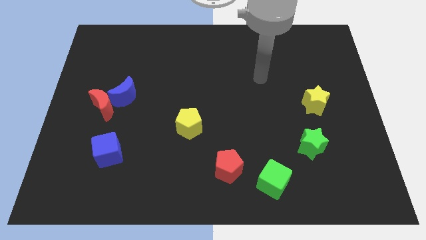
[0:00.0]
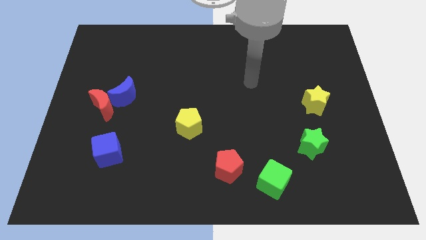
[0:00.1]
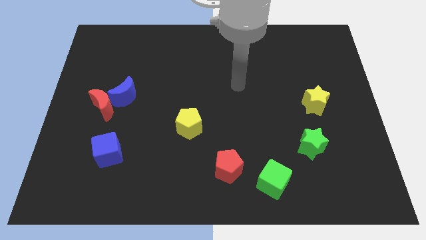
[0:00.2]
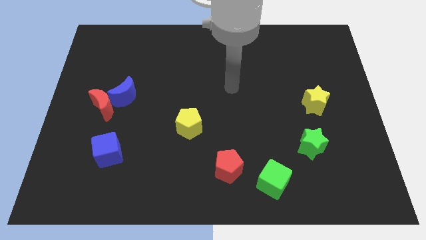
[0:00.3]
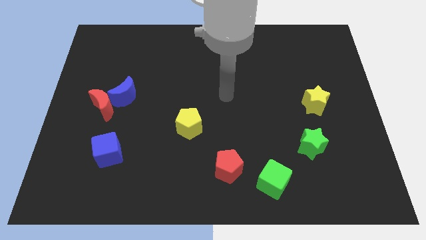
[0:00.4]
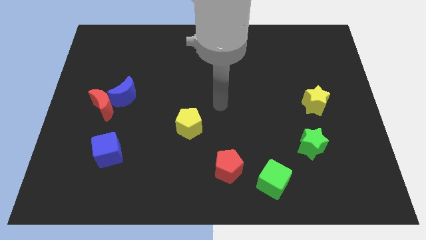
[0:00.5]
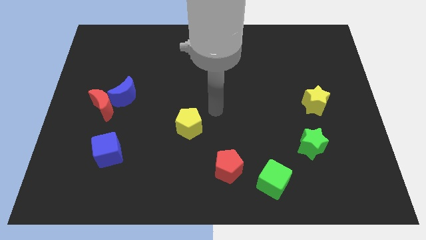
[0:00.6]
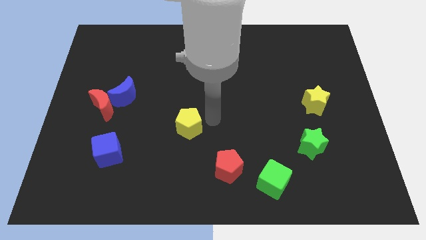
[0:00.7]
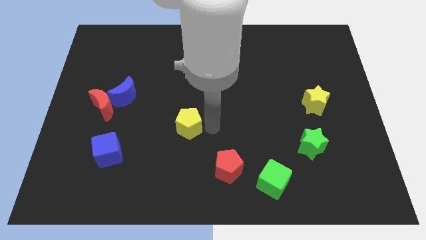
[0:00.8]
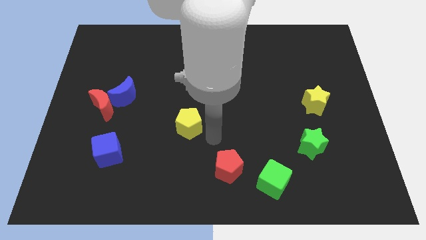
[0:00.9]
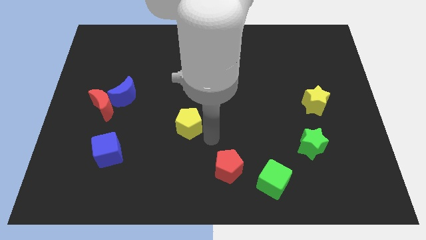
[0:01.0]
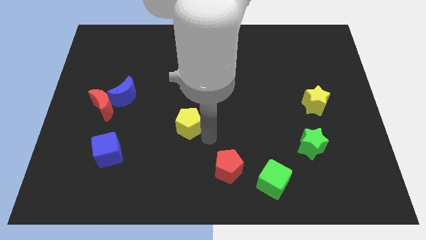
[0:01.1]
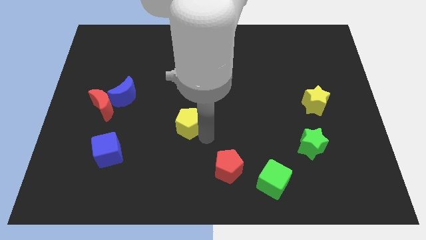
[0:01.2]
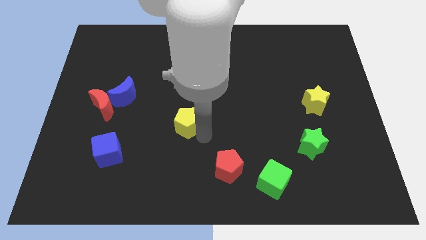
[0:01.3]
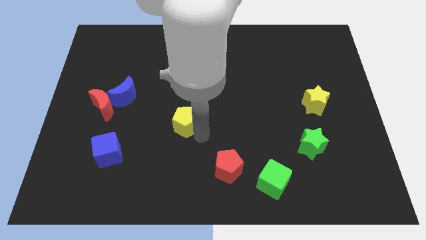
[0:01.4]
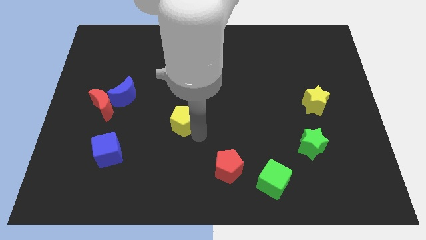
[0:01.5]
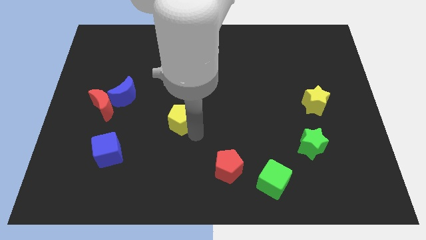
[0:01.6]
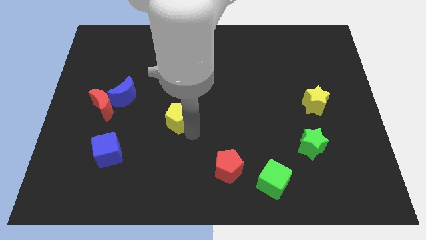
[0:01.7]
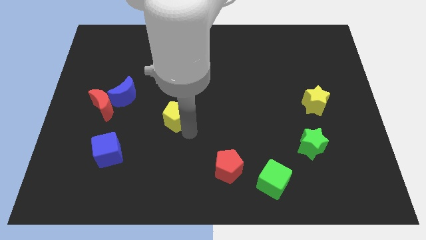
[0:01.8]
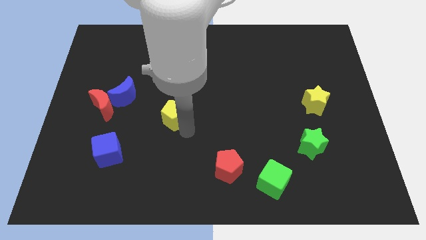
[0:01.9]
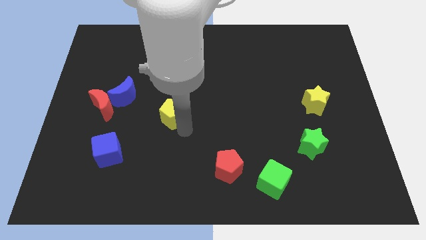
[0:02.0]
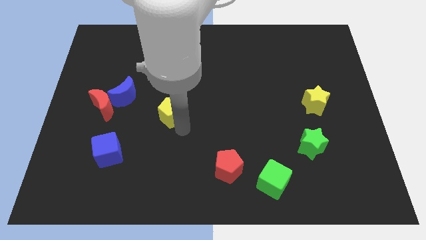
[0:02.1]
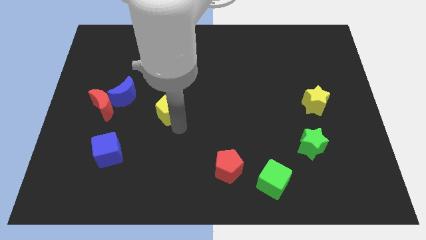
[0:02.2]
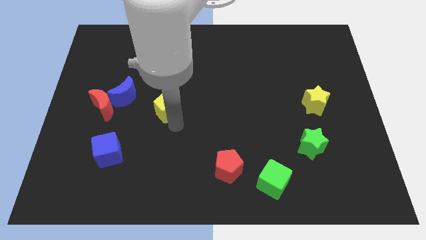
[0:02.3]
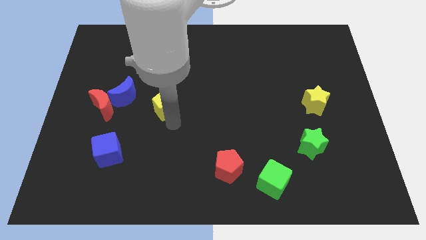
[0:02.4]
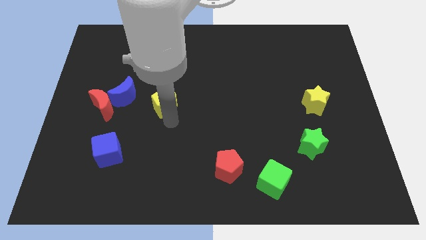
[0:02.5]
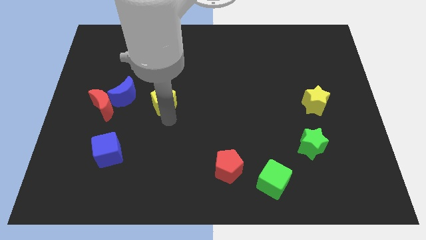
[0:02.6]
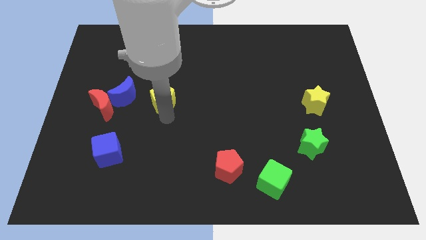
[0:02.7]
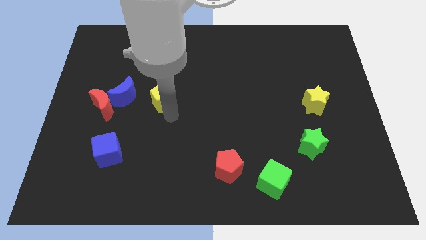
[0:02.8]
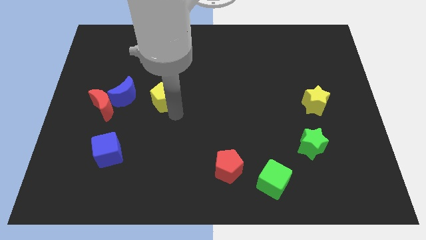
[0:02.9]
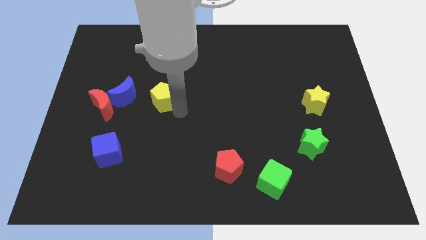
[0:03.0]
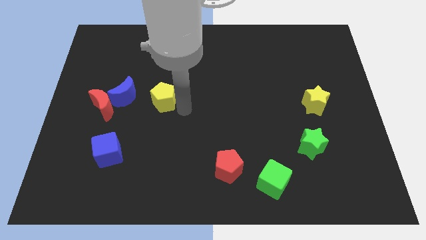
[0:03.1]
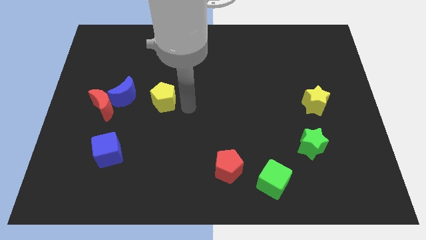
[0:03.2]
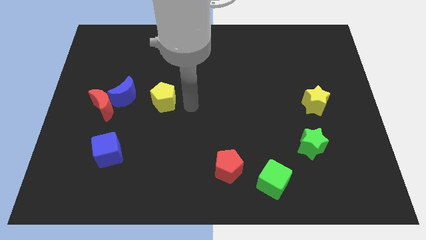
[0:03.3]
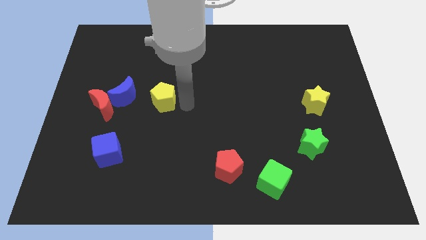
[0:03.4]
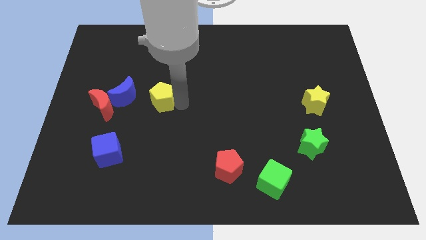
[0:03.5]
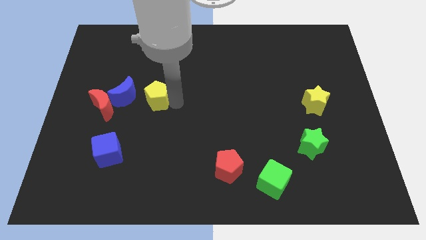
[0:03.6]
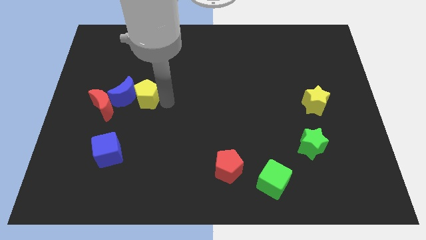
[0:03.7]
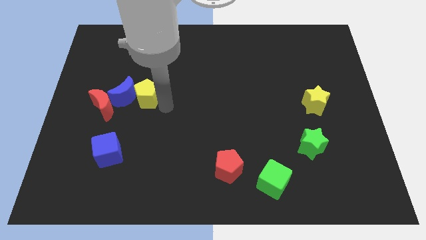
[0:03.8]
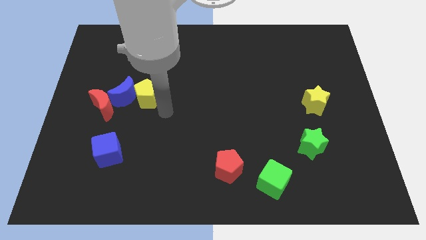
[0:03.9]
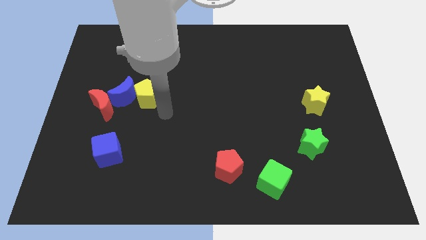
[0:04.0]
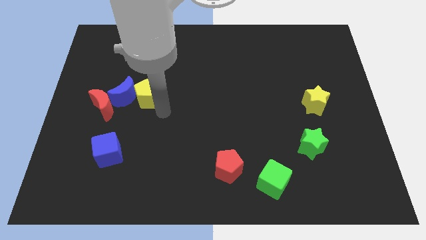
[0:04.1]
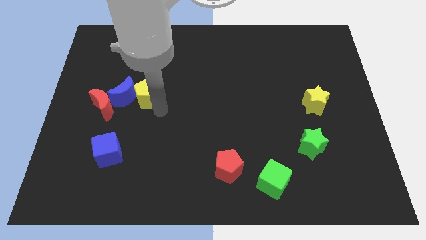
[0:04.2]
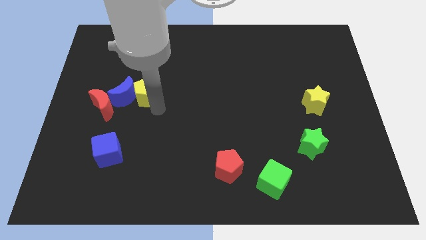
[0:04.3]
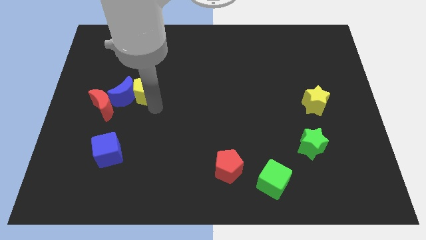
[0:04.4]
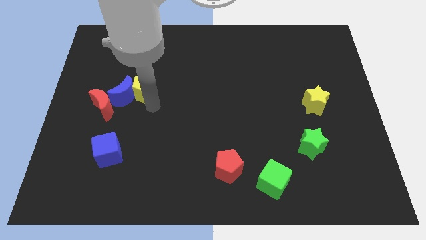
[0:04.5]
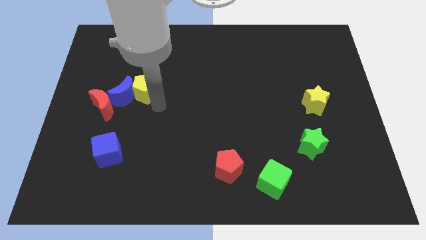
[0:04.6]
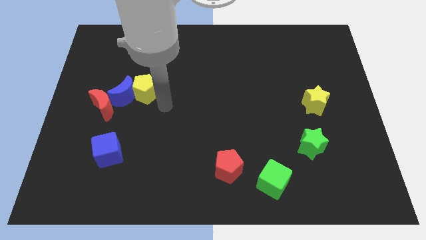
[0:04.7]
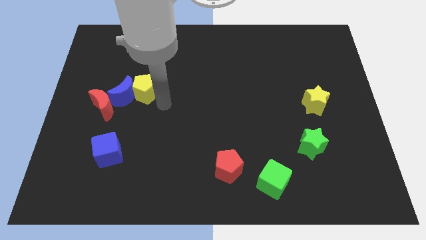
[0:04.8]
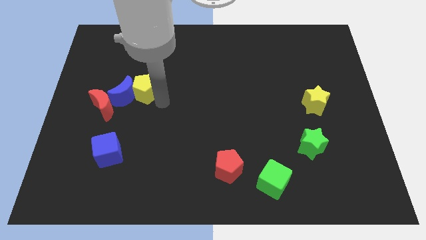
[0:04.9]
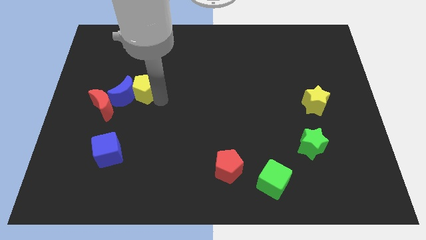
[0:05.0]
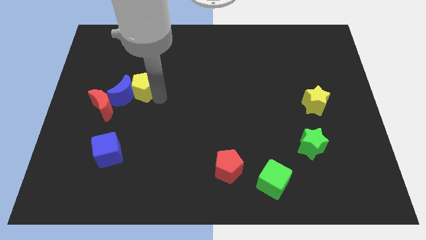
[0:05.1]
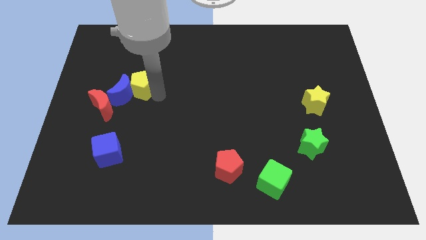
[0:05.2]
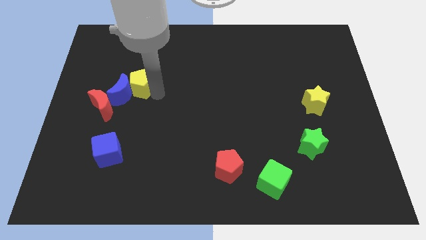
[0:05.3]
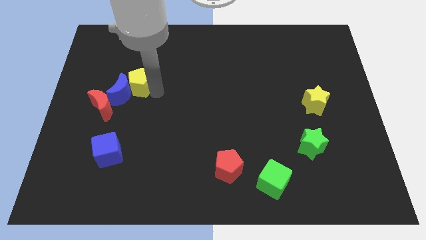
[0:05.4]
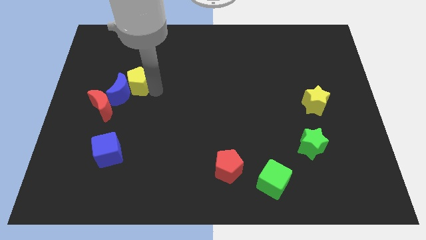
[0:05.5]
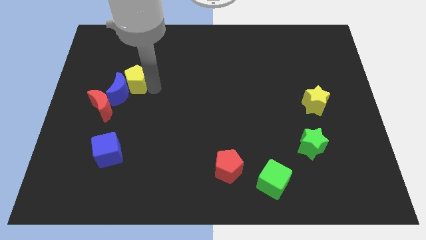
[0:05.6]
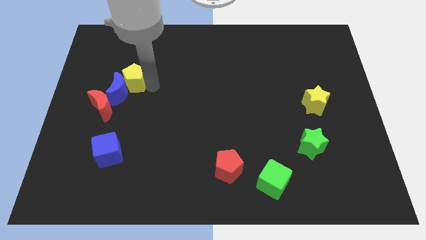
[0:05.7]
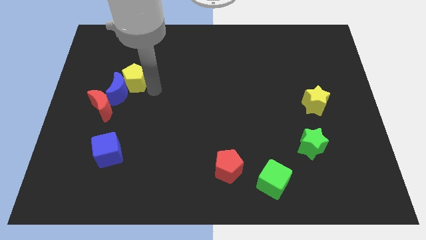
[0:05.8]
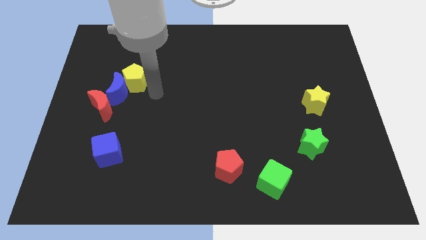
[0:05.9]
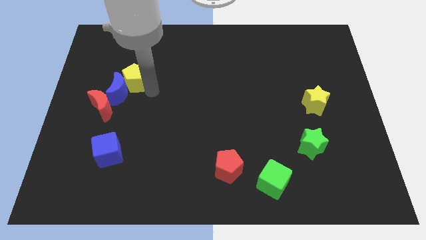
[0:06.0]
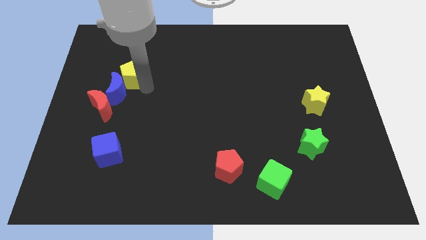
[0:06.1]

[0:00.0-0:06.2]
move the yellow pentagon upwards and left diagonally

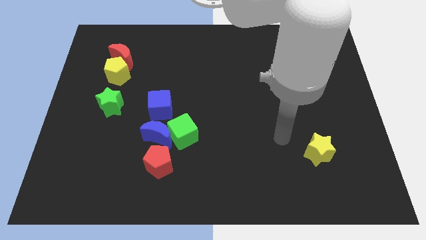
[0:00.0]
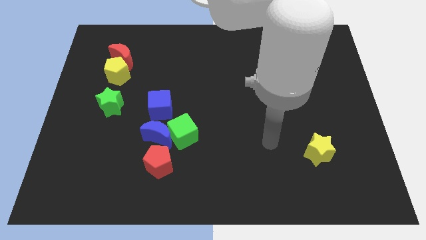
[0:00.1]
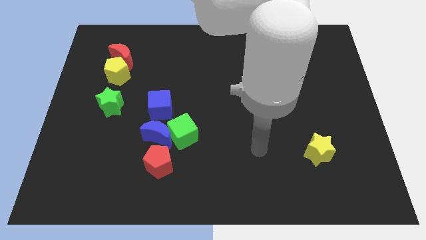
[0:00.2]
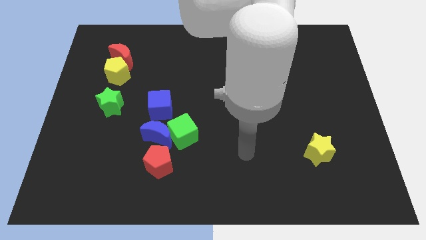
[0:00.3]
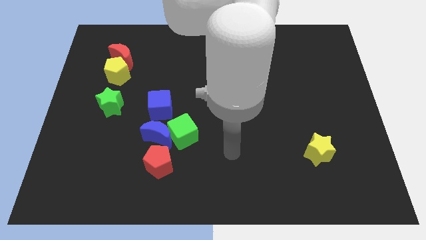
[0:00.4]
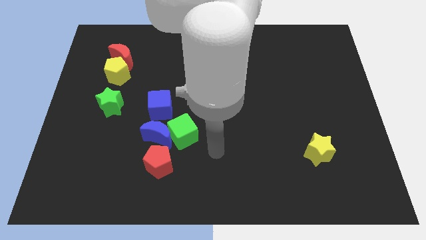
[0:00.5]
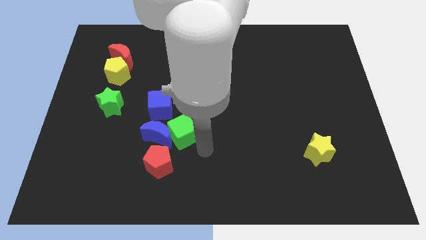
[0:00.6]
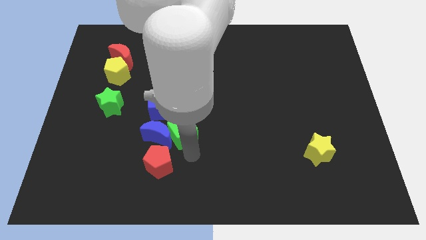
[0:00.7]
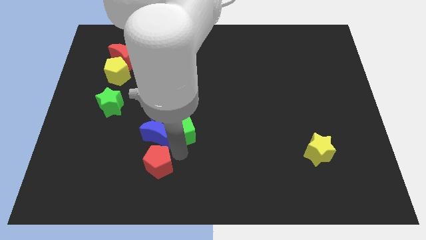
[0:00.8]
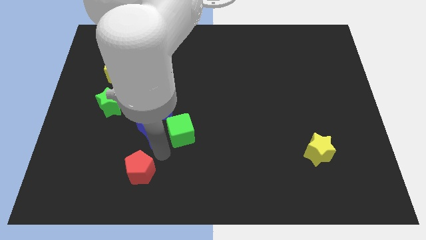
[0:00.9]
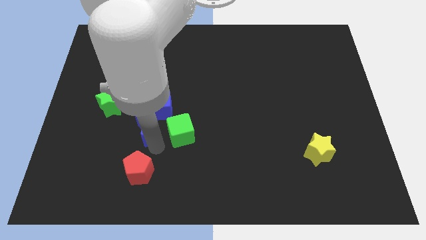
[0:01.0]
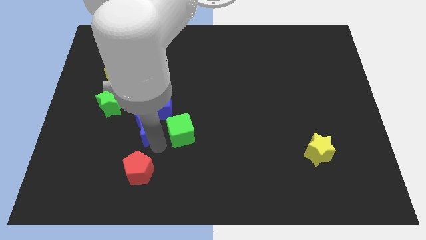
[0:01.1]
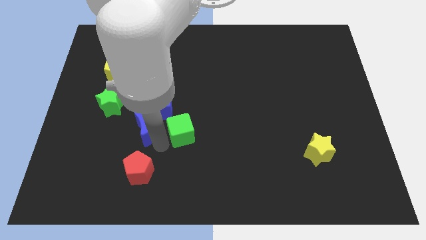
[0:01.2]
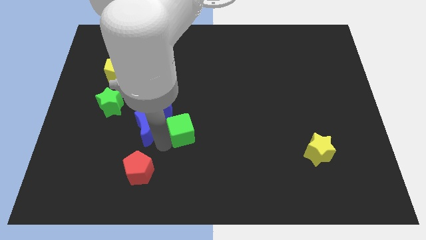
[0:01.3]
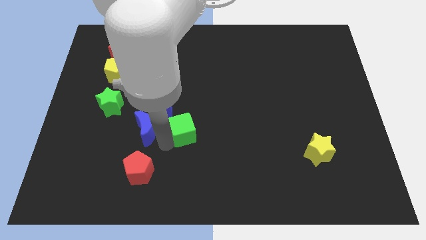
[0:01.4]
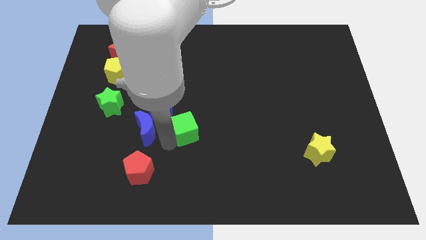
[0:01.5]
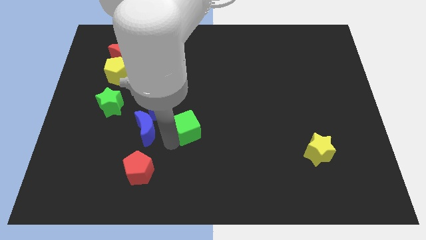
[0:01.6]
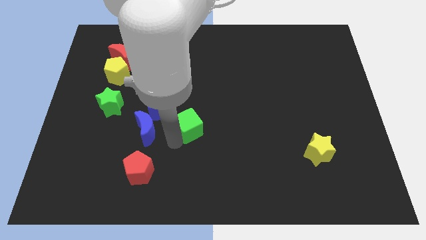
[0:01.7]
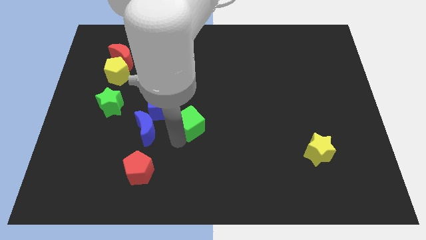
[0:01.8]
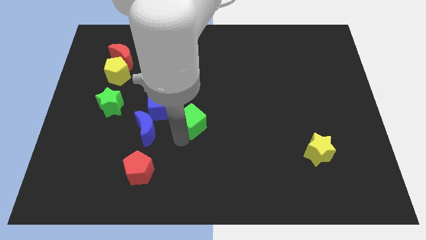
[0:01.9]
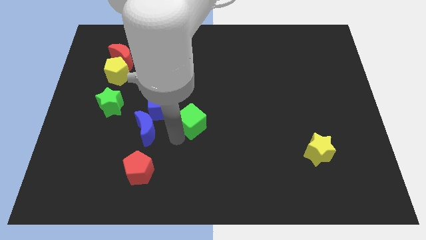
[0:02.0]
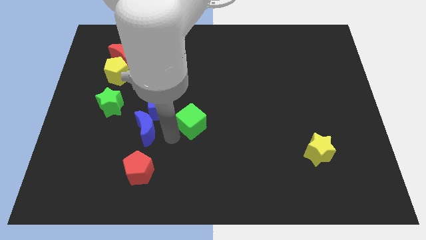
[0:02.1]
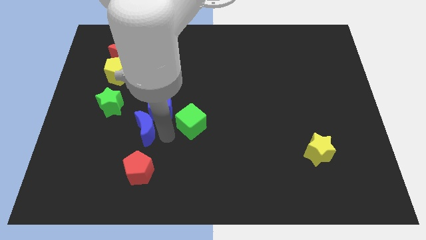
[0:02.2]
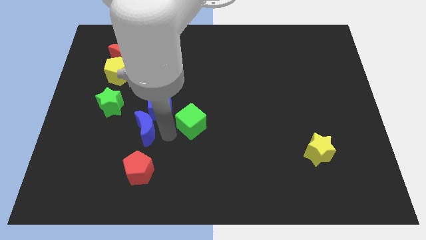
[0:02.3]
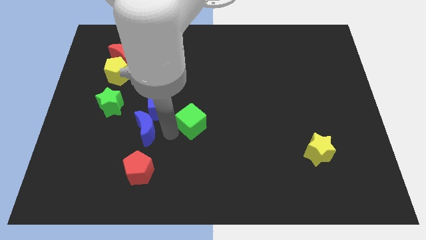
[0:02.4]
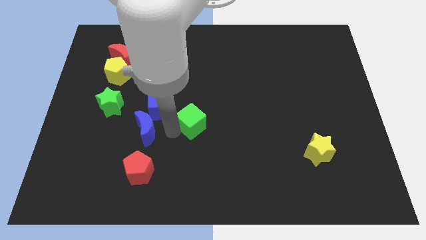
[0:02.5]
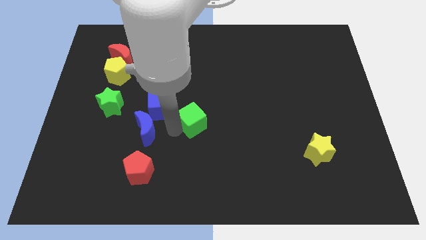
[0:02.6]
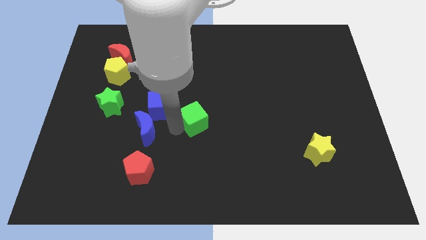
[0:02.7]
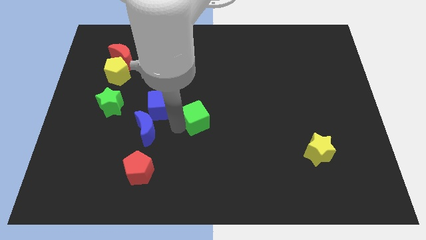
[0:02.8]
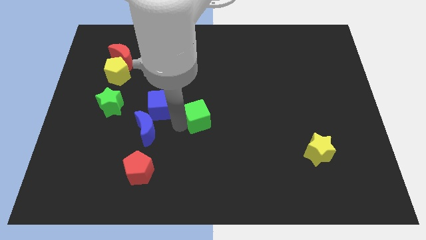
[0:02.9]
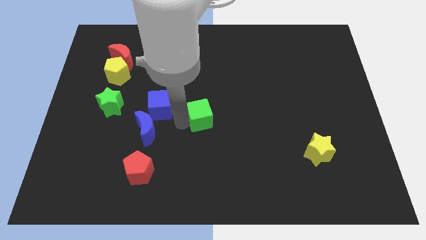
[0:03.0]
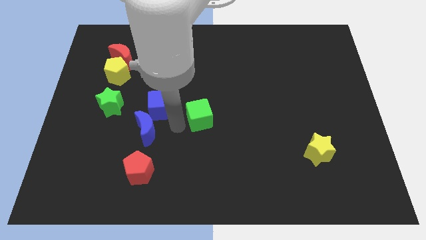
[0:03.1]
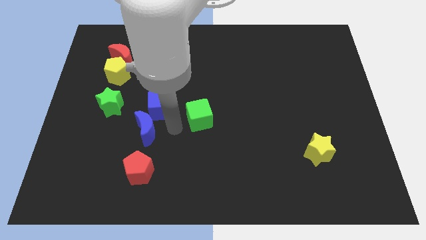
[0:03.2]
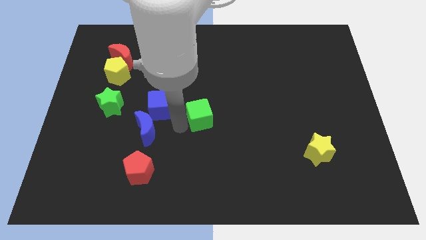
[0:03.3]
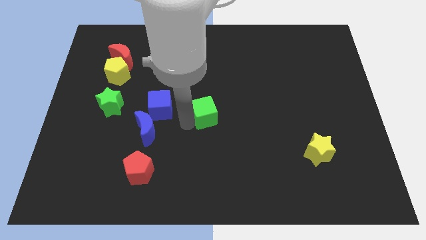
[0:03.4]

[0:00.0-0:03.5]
slide the green cube up and then to the right somewhat
